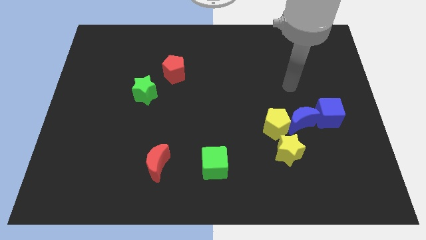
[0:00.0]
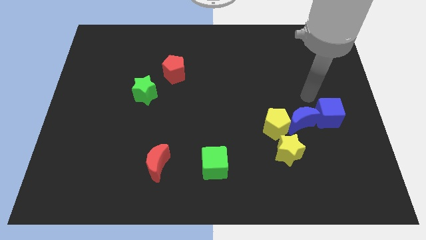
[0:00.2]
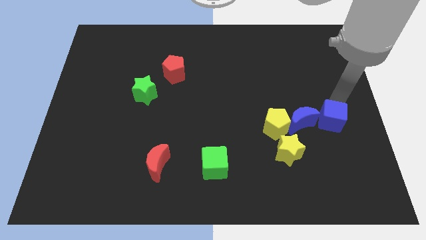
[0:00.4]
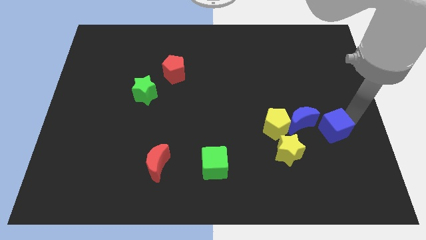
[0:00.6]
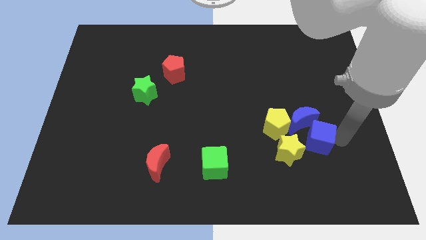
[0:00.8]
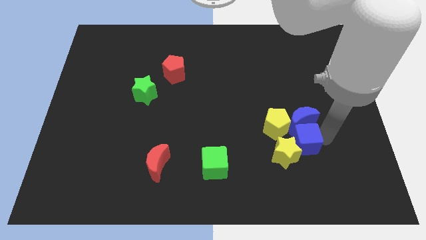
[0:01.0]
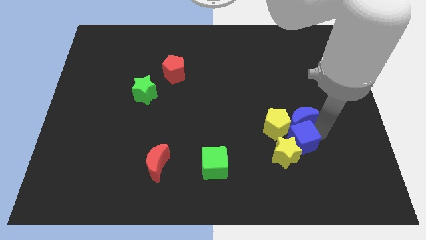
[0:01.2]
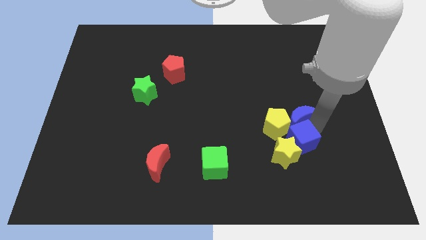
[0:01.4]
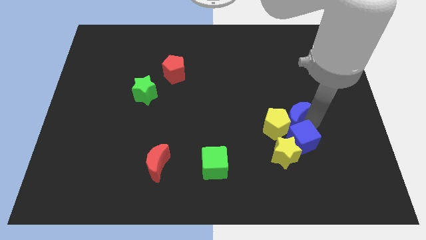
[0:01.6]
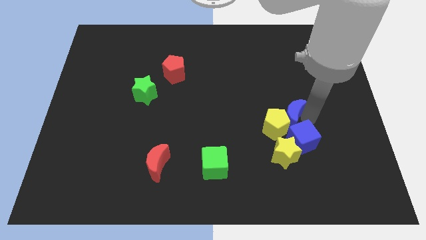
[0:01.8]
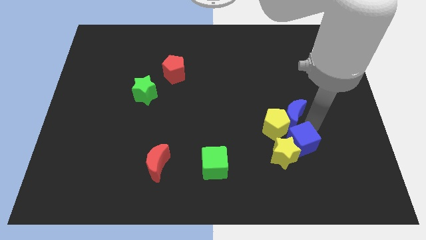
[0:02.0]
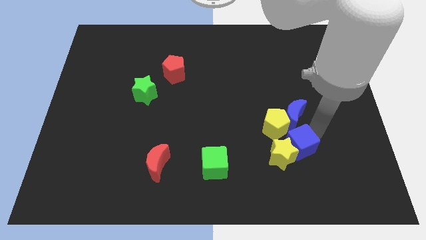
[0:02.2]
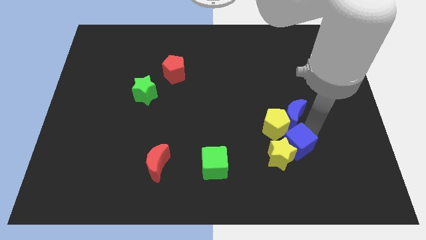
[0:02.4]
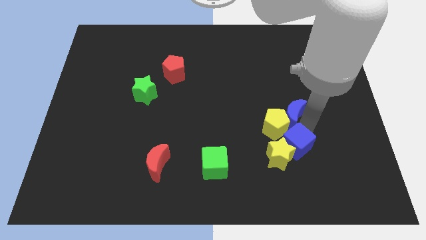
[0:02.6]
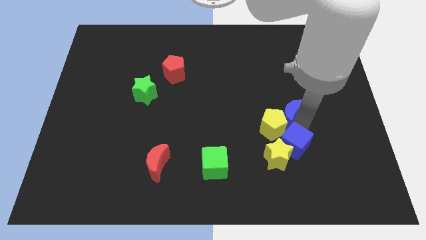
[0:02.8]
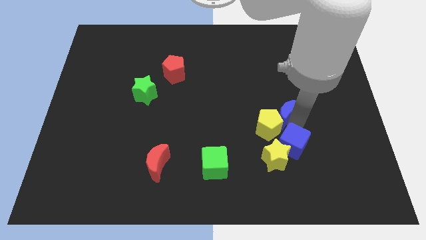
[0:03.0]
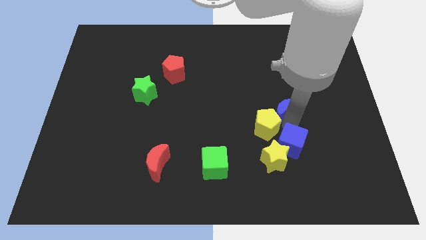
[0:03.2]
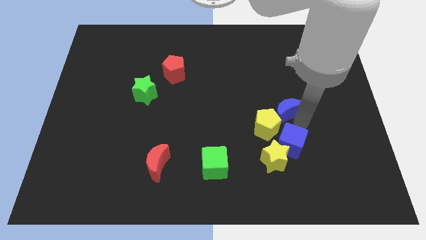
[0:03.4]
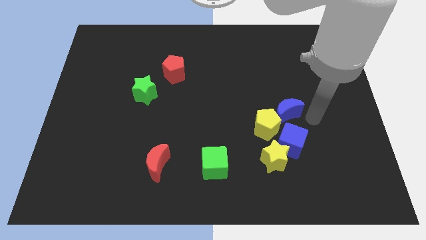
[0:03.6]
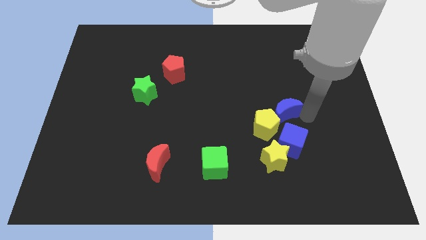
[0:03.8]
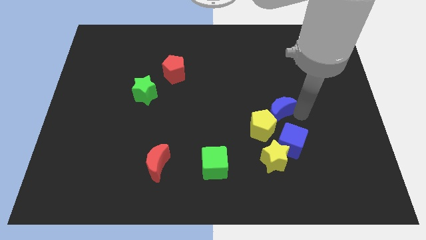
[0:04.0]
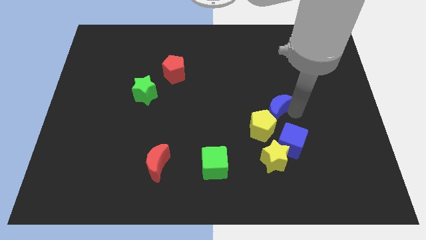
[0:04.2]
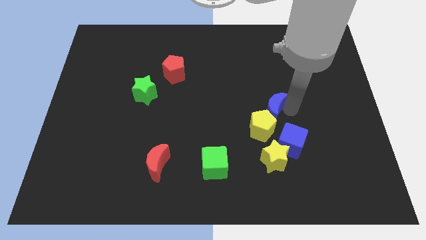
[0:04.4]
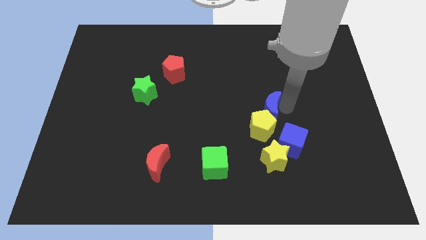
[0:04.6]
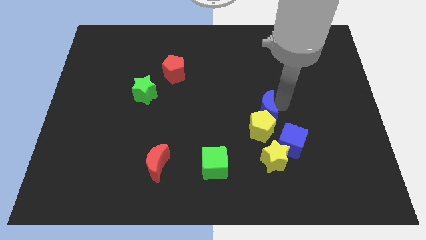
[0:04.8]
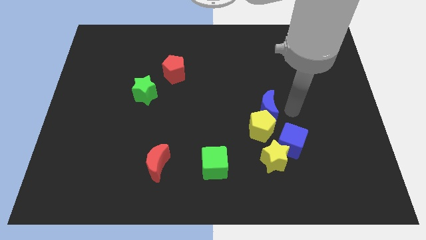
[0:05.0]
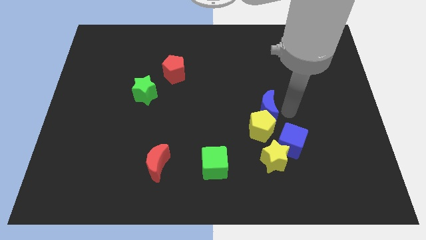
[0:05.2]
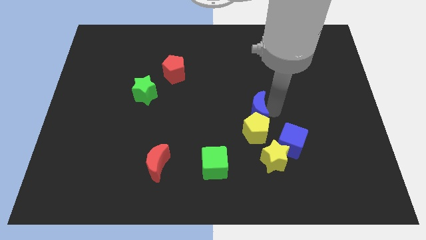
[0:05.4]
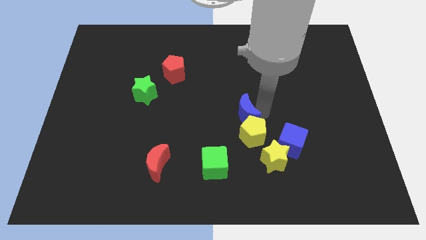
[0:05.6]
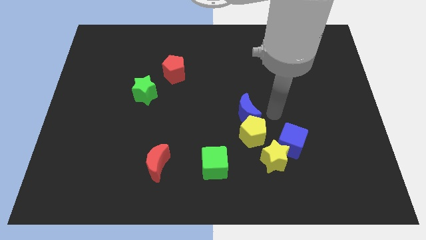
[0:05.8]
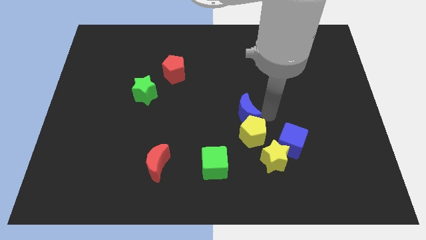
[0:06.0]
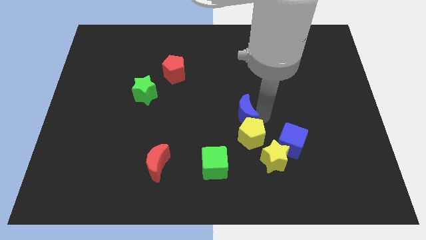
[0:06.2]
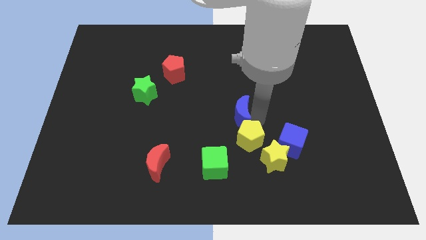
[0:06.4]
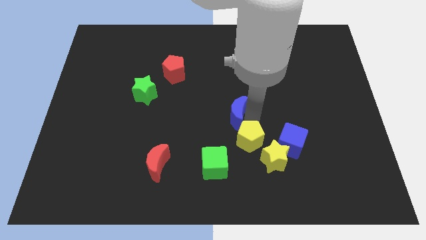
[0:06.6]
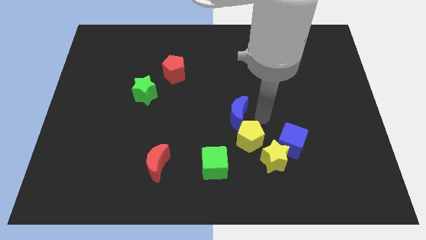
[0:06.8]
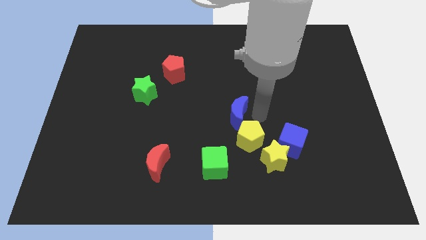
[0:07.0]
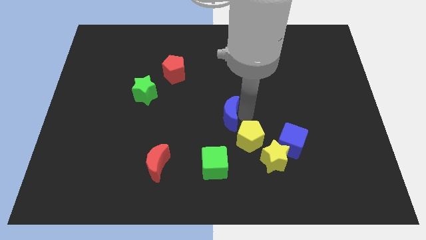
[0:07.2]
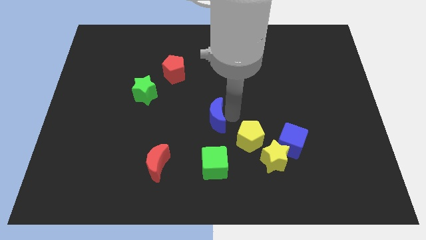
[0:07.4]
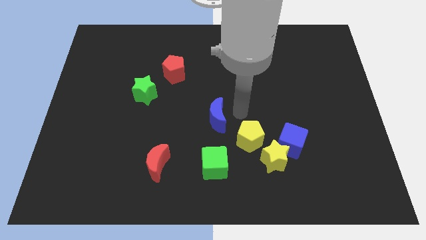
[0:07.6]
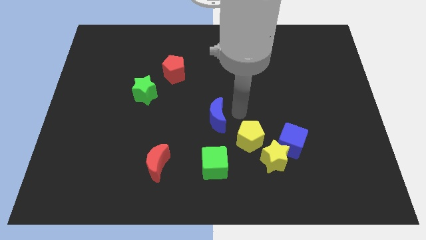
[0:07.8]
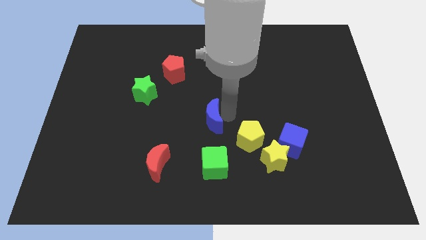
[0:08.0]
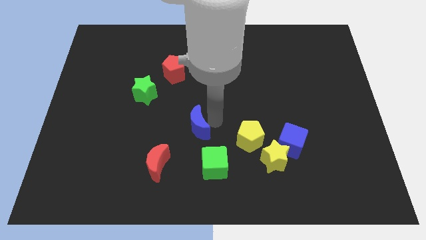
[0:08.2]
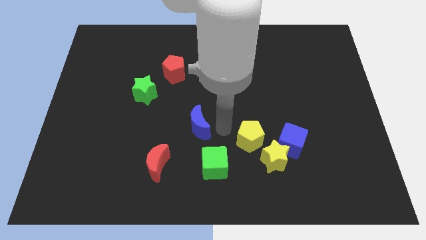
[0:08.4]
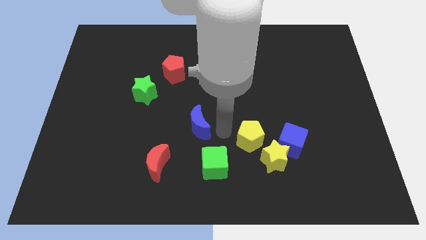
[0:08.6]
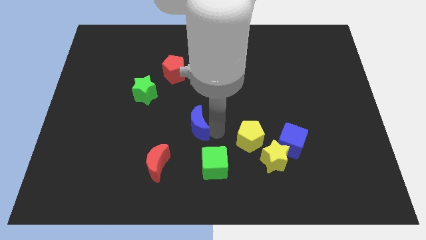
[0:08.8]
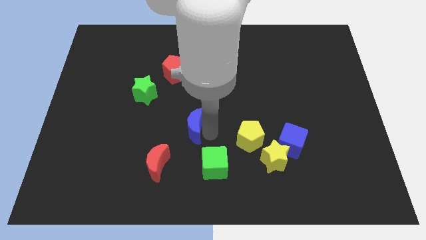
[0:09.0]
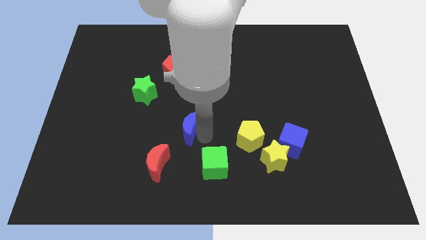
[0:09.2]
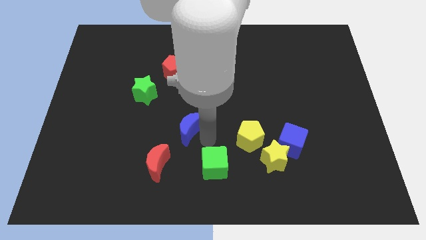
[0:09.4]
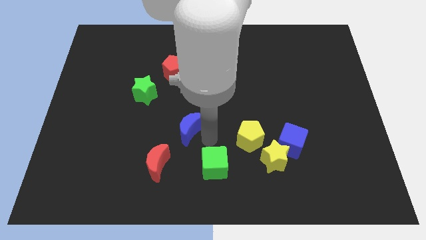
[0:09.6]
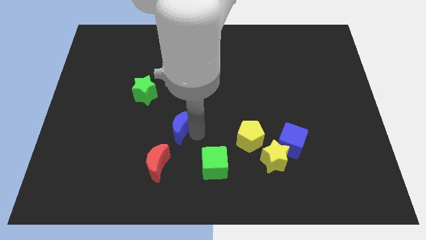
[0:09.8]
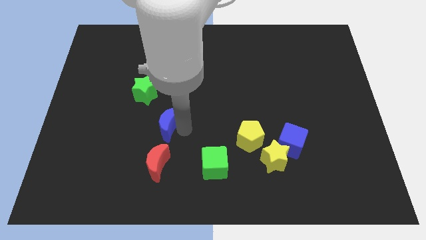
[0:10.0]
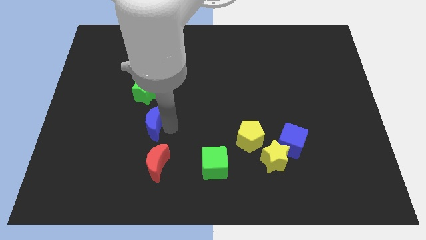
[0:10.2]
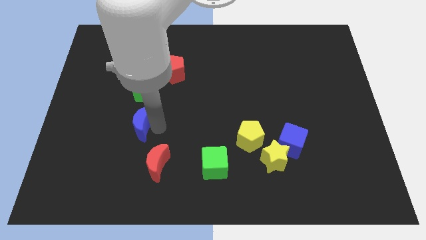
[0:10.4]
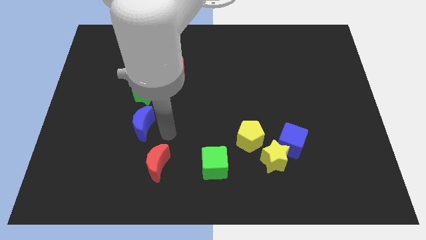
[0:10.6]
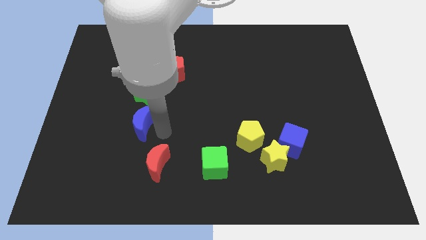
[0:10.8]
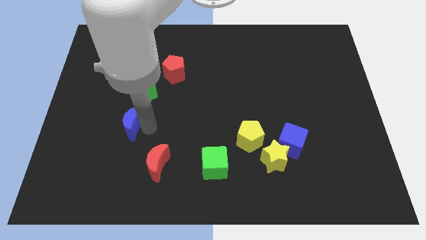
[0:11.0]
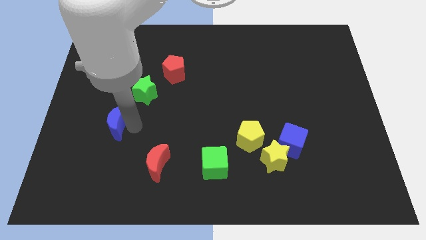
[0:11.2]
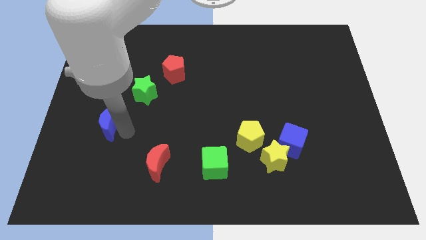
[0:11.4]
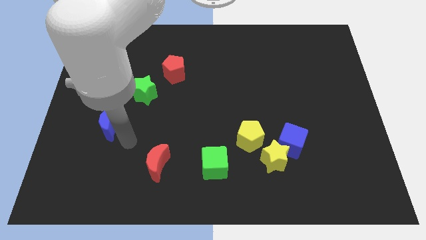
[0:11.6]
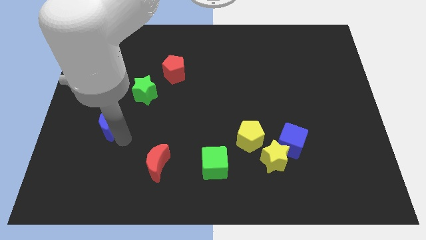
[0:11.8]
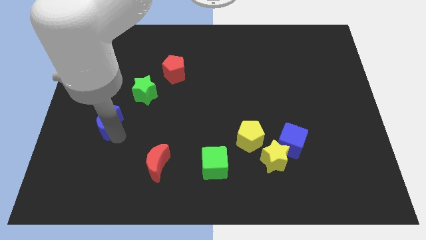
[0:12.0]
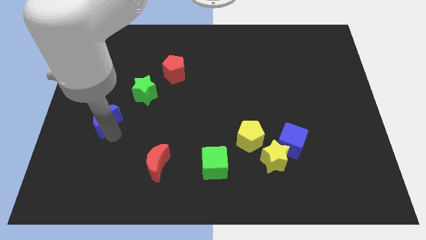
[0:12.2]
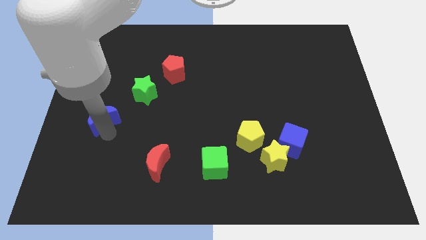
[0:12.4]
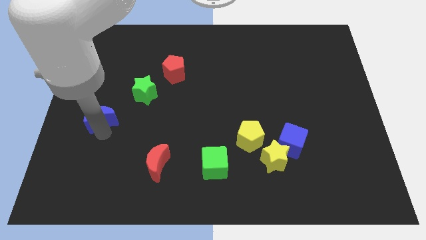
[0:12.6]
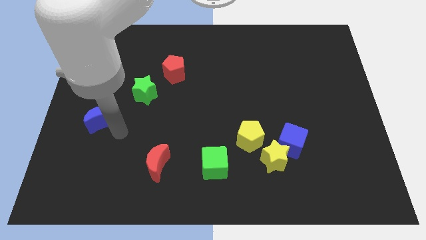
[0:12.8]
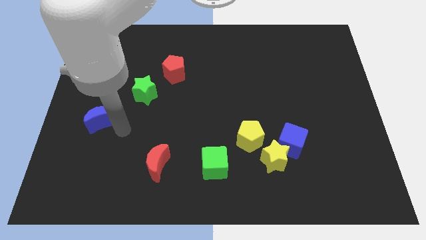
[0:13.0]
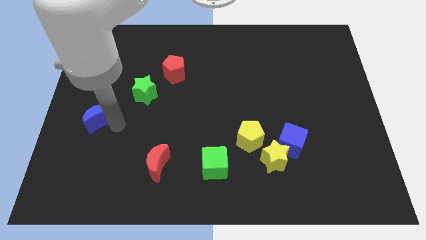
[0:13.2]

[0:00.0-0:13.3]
slide the blue moon to the left side of the board
